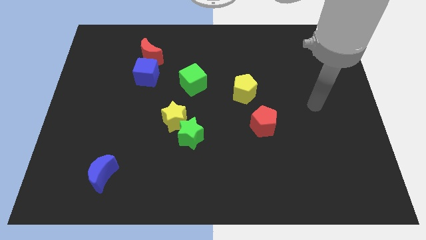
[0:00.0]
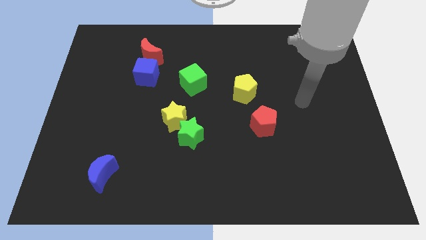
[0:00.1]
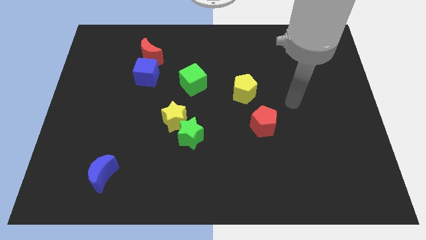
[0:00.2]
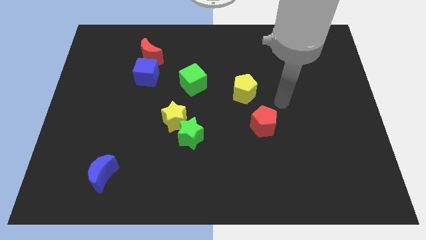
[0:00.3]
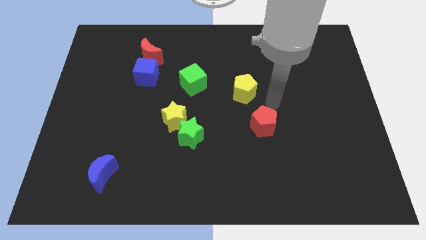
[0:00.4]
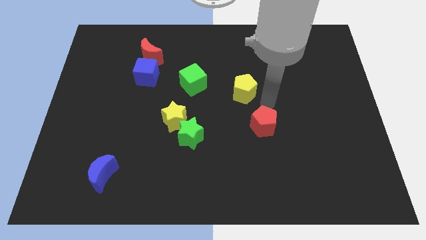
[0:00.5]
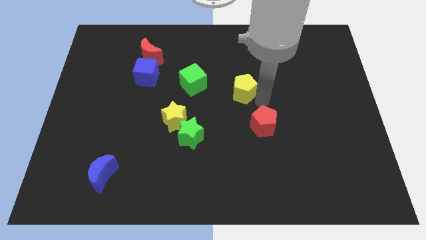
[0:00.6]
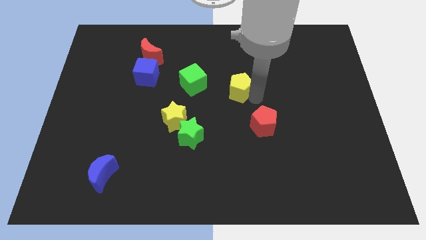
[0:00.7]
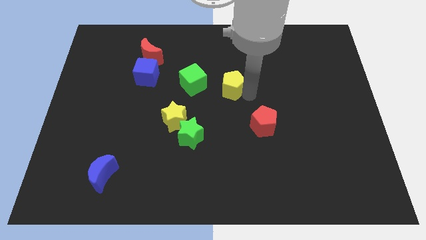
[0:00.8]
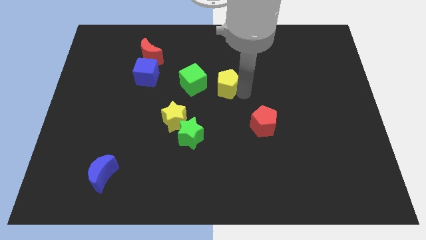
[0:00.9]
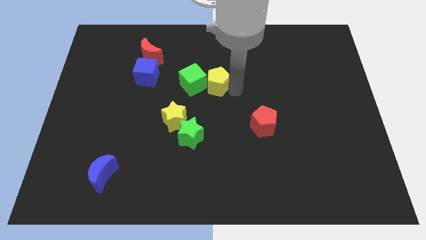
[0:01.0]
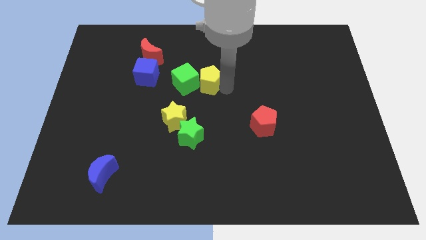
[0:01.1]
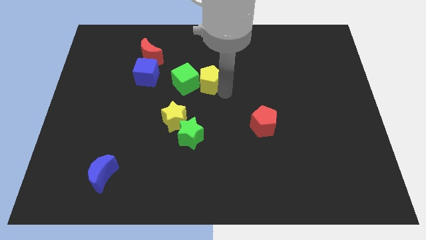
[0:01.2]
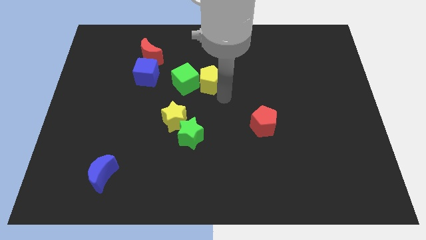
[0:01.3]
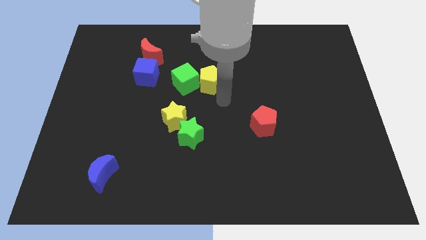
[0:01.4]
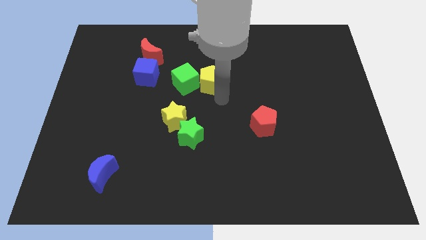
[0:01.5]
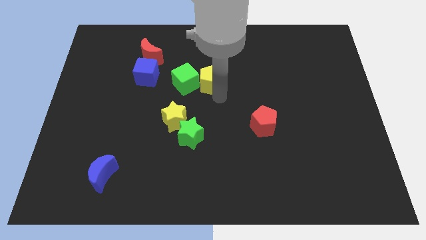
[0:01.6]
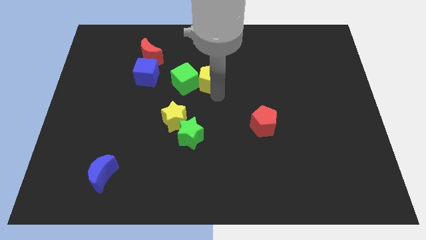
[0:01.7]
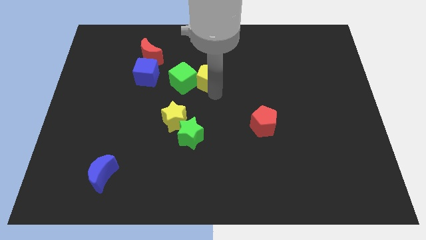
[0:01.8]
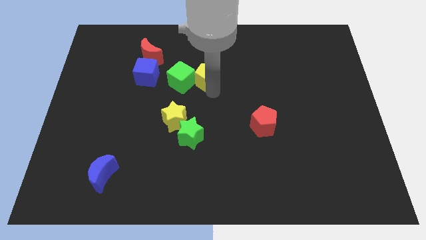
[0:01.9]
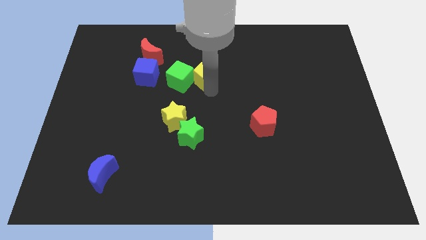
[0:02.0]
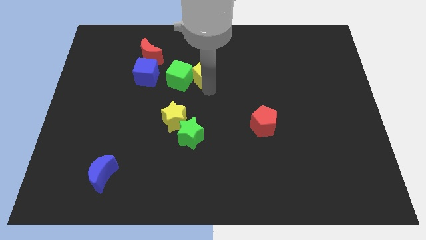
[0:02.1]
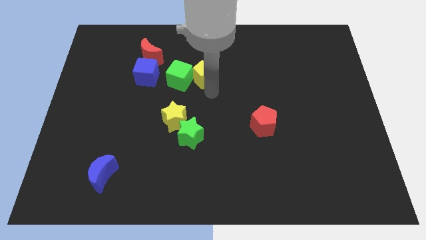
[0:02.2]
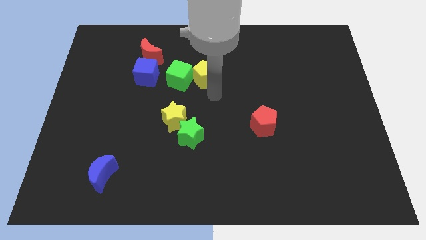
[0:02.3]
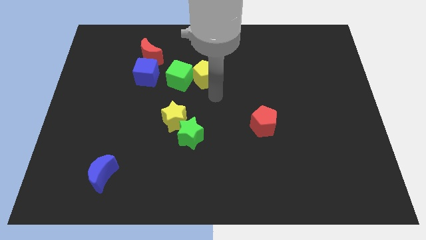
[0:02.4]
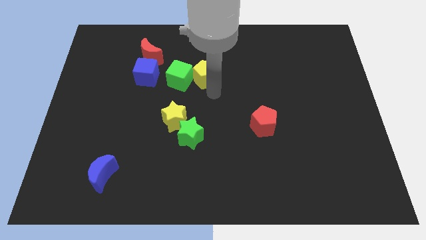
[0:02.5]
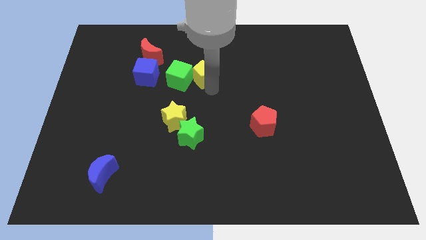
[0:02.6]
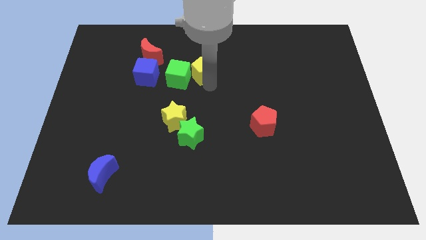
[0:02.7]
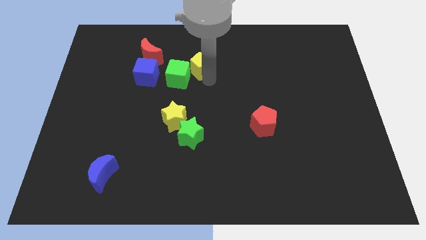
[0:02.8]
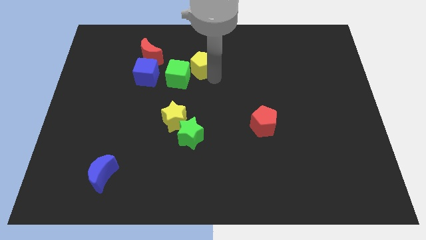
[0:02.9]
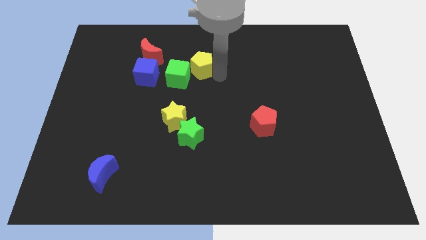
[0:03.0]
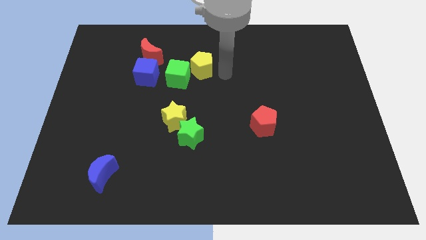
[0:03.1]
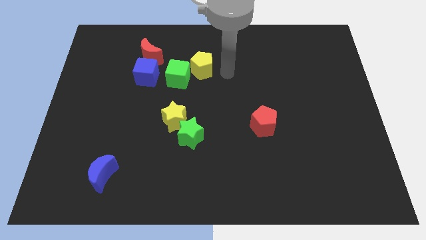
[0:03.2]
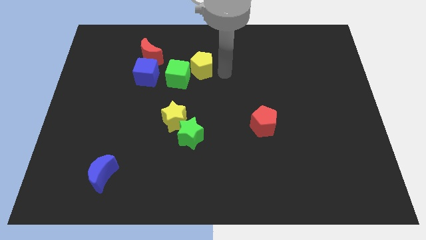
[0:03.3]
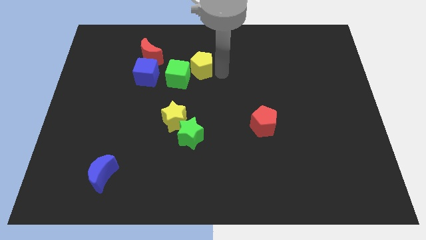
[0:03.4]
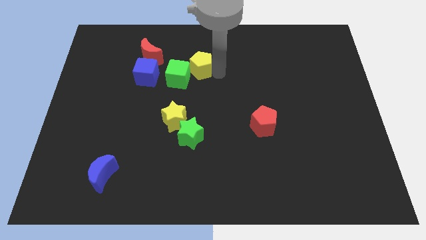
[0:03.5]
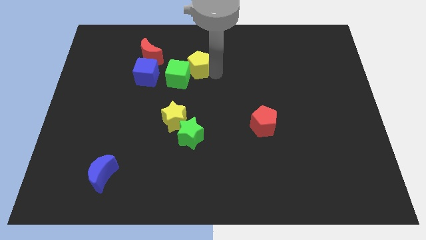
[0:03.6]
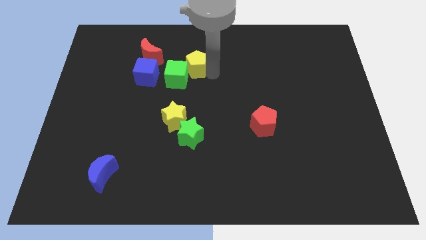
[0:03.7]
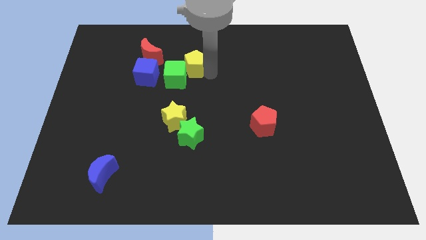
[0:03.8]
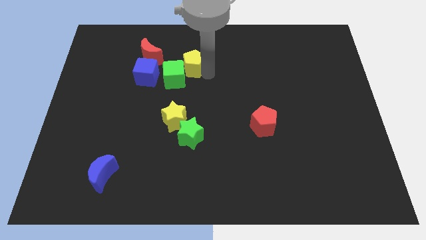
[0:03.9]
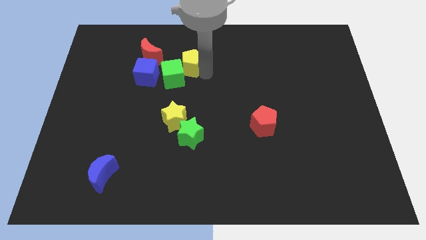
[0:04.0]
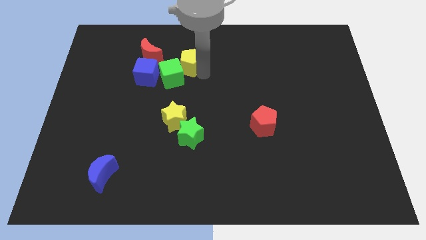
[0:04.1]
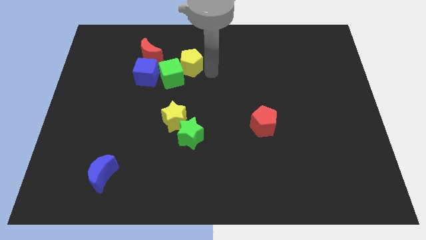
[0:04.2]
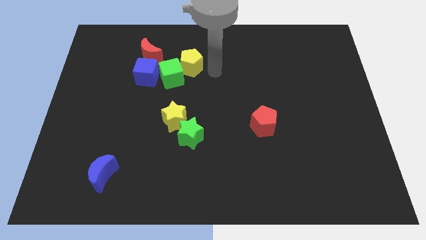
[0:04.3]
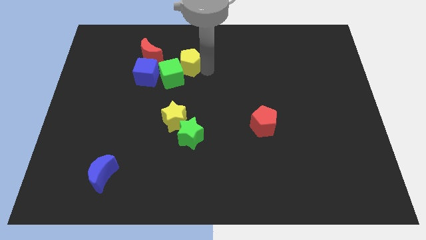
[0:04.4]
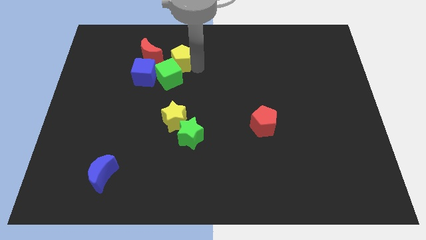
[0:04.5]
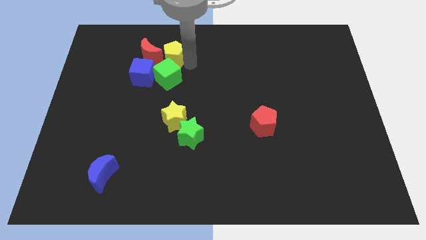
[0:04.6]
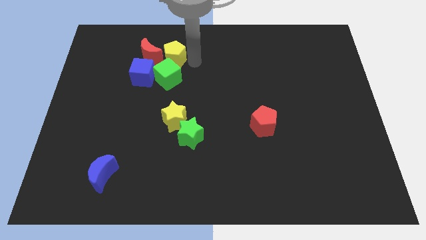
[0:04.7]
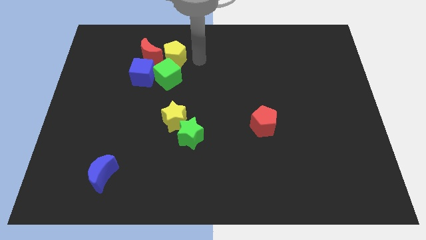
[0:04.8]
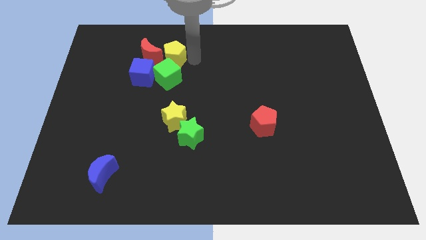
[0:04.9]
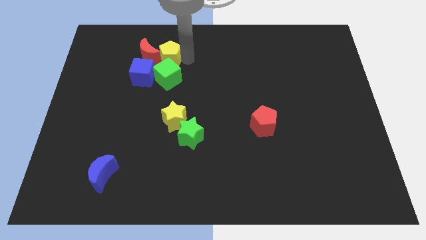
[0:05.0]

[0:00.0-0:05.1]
push the yellow pentagon towards the red moon

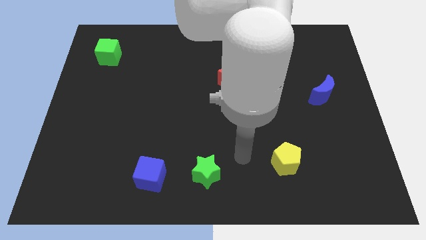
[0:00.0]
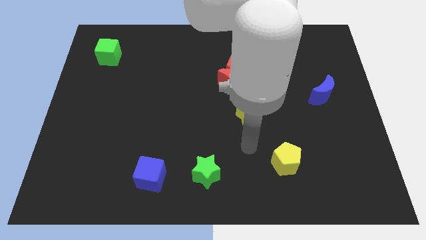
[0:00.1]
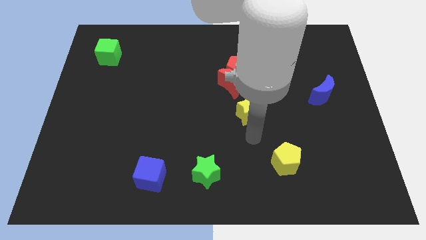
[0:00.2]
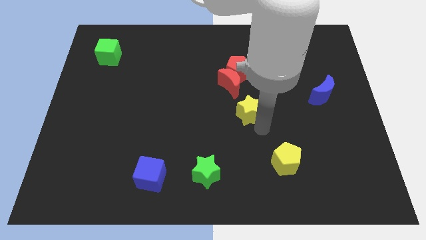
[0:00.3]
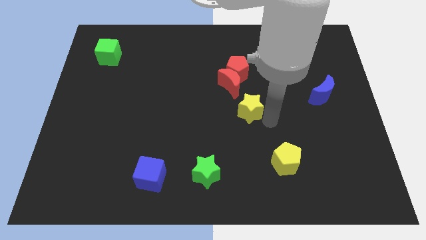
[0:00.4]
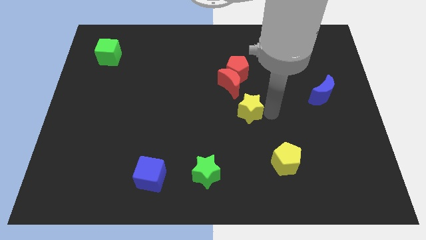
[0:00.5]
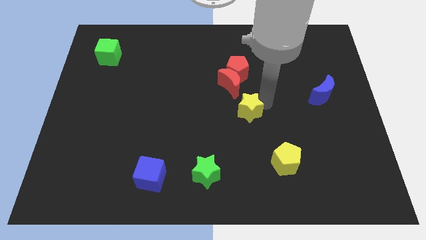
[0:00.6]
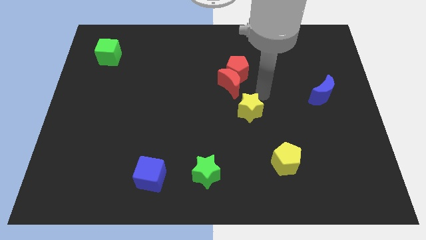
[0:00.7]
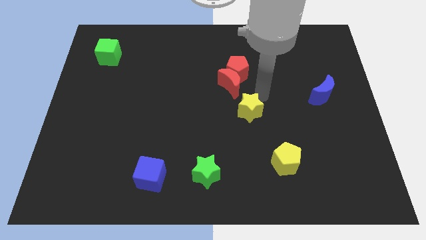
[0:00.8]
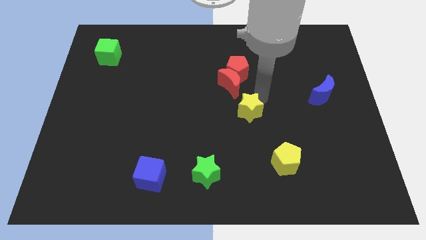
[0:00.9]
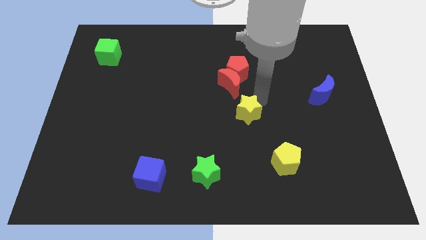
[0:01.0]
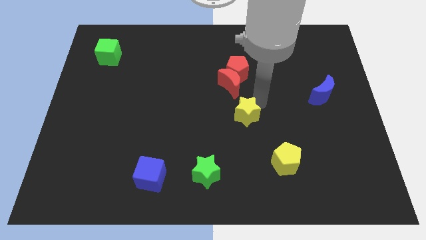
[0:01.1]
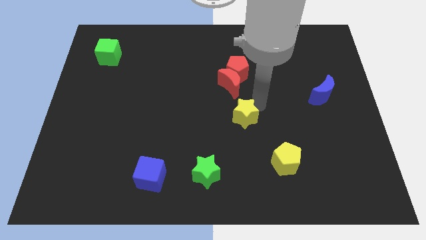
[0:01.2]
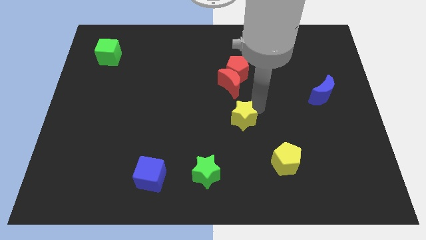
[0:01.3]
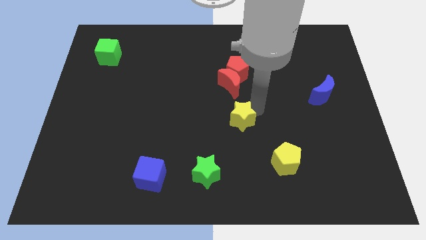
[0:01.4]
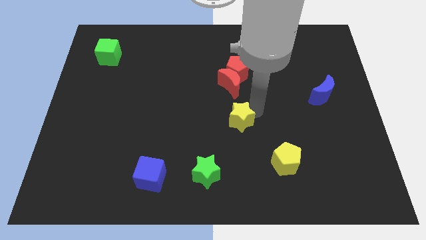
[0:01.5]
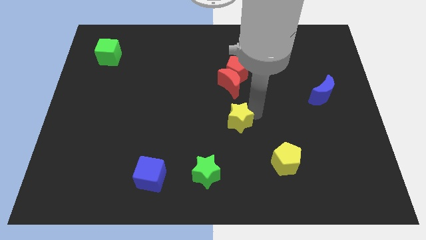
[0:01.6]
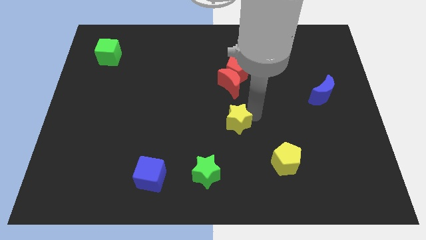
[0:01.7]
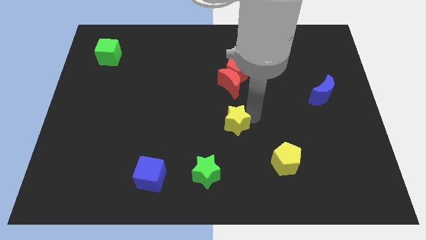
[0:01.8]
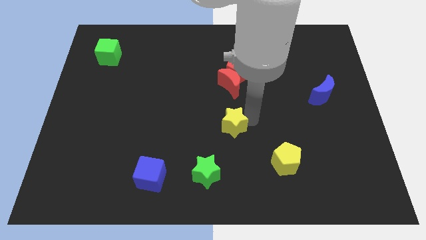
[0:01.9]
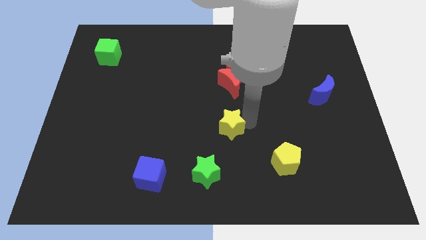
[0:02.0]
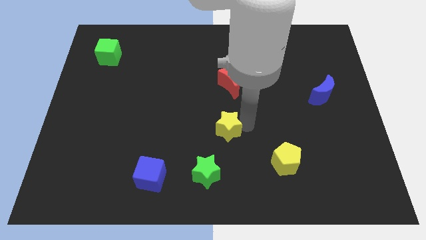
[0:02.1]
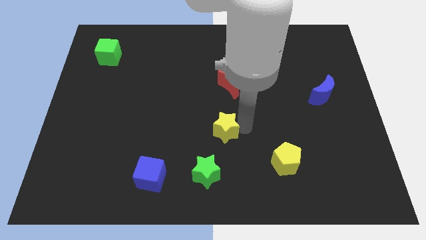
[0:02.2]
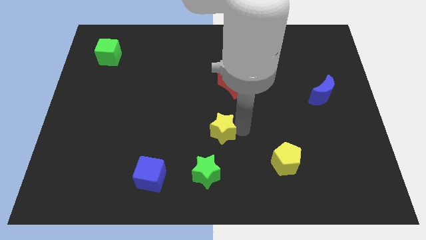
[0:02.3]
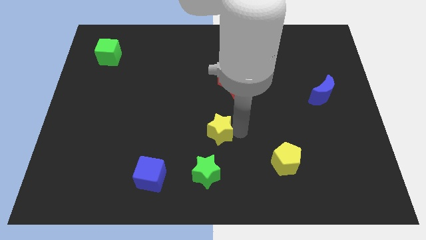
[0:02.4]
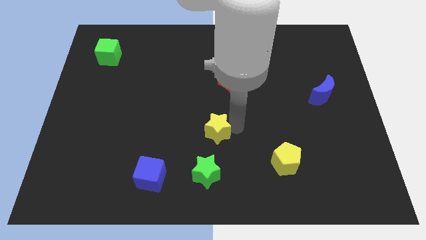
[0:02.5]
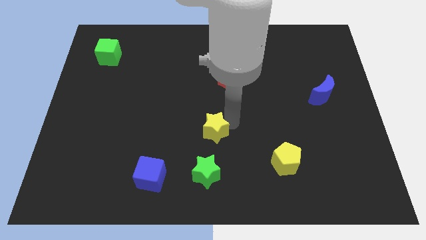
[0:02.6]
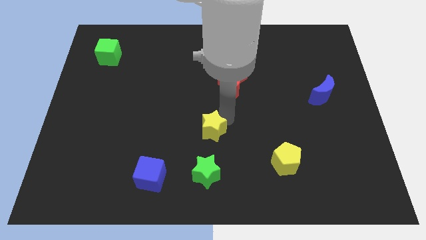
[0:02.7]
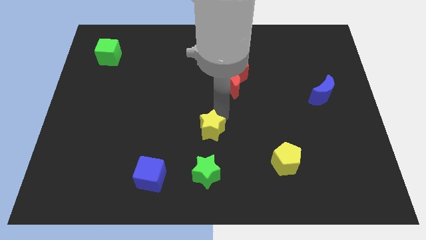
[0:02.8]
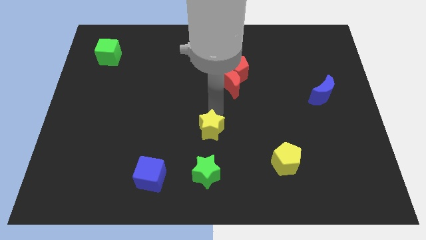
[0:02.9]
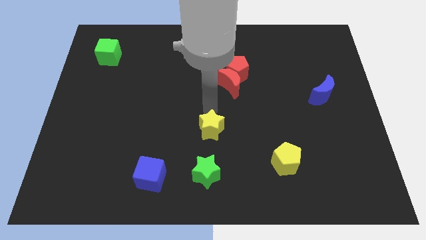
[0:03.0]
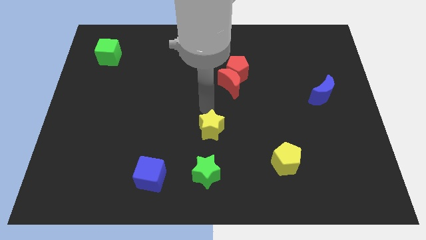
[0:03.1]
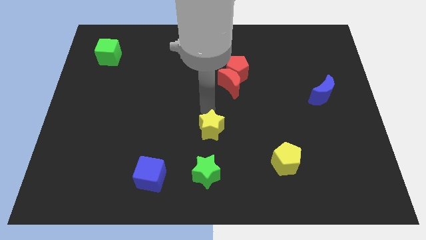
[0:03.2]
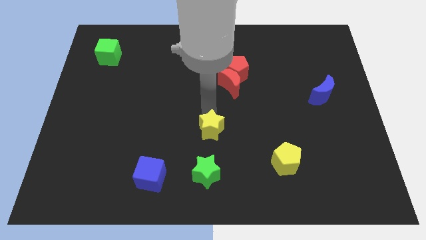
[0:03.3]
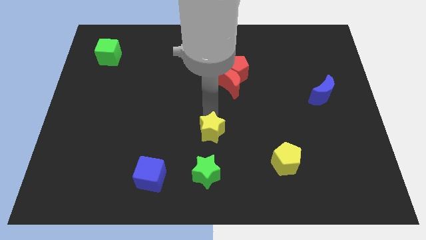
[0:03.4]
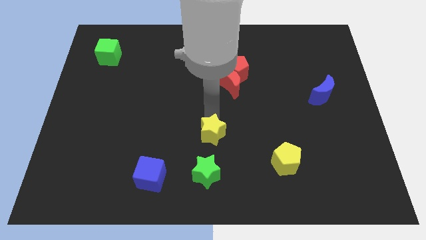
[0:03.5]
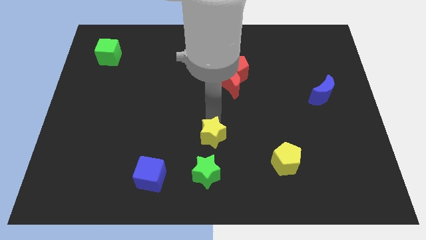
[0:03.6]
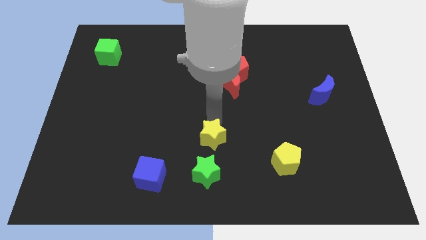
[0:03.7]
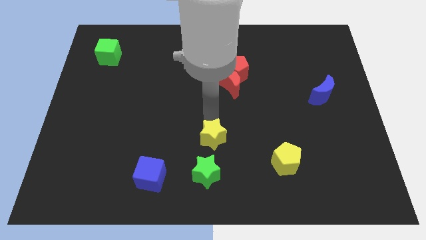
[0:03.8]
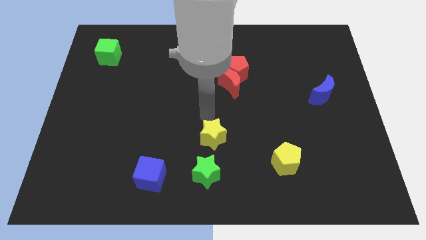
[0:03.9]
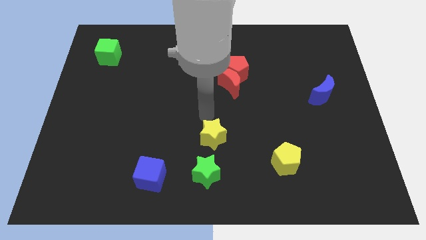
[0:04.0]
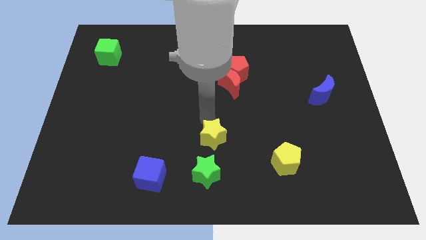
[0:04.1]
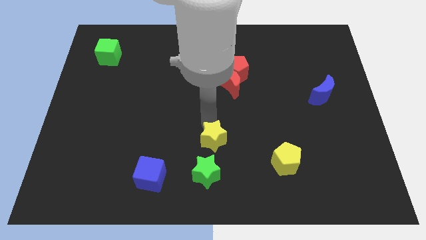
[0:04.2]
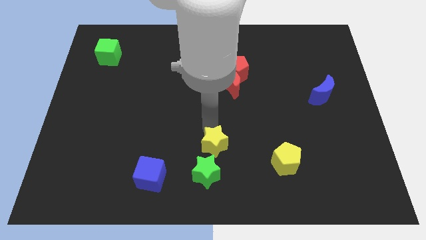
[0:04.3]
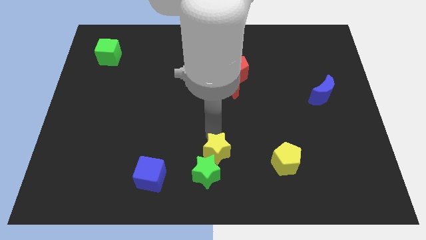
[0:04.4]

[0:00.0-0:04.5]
slide the yellow star towards the green star
